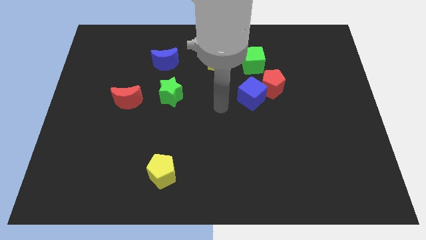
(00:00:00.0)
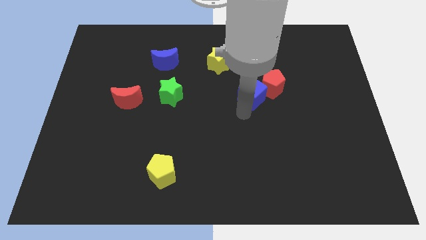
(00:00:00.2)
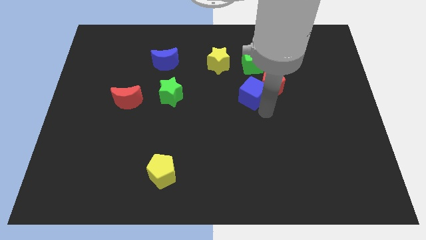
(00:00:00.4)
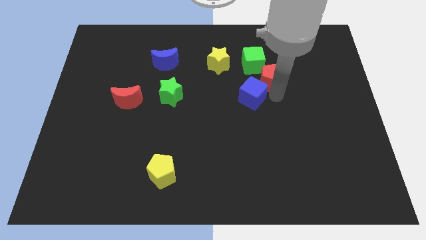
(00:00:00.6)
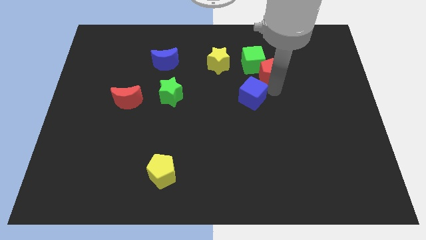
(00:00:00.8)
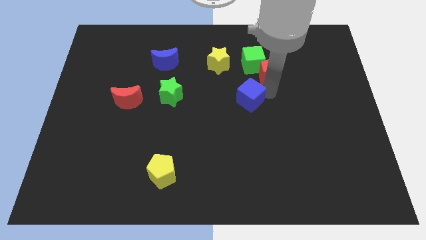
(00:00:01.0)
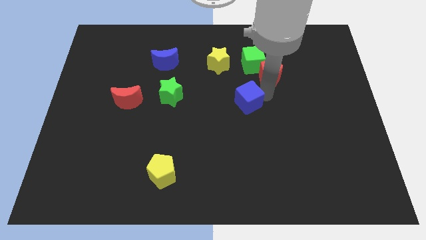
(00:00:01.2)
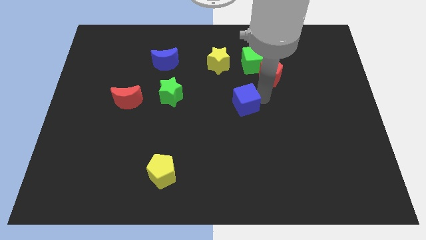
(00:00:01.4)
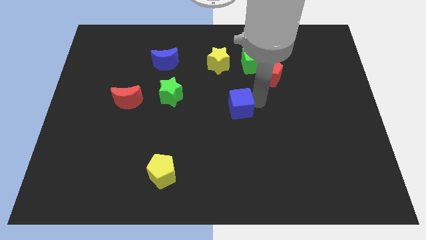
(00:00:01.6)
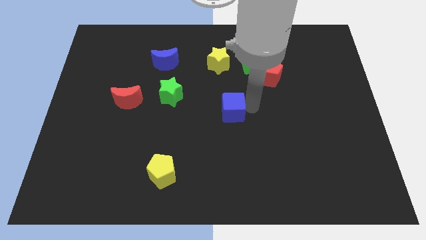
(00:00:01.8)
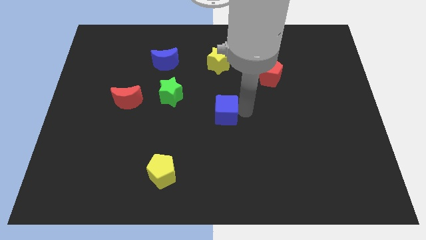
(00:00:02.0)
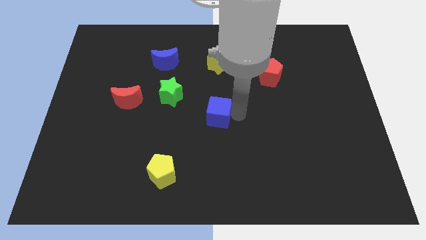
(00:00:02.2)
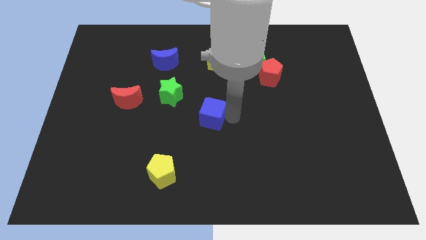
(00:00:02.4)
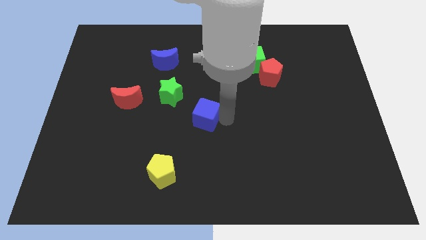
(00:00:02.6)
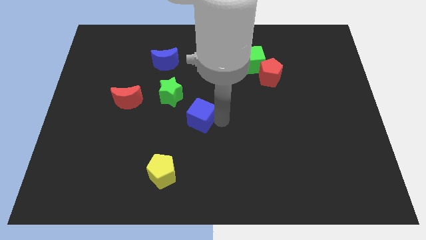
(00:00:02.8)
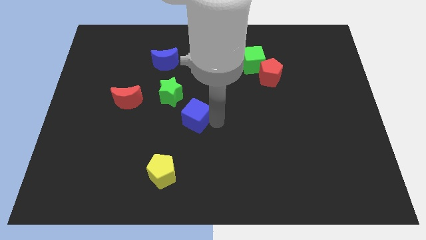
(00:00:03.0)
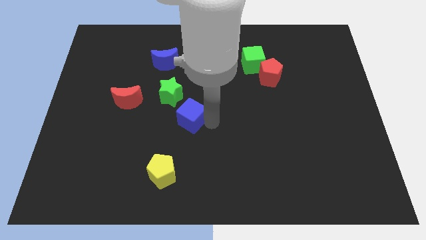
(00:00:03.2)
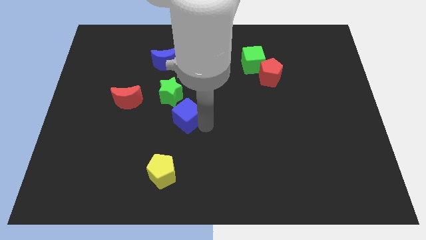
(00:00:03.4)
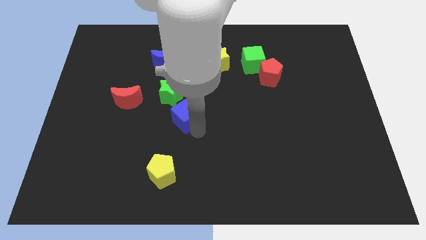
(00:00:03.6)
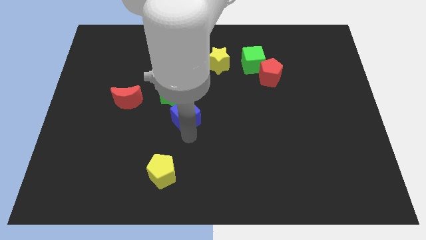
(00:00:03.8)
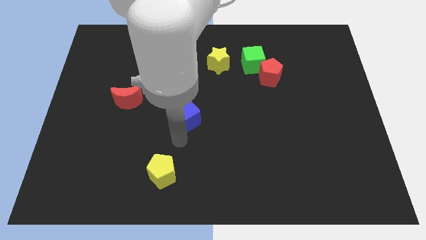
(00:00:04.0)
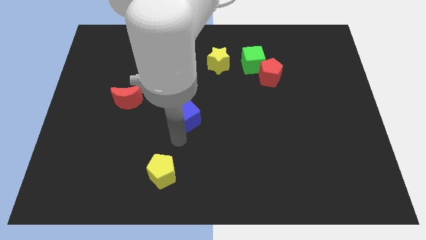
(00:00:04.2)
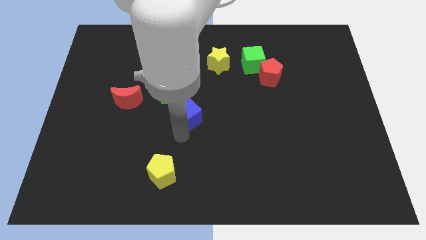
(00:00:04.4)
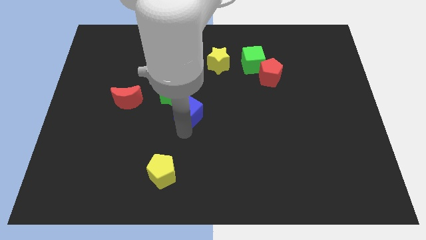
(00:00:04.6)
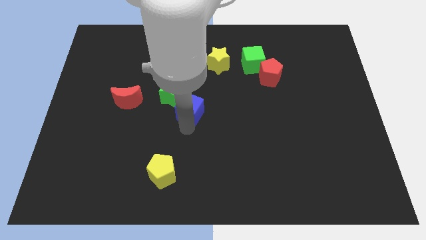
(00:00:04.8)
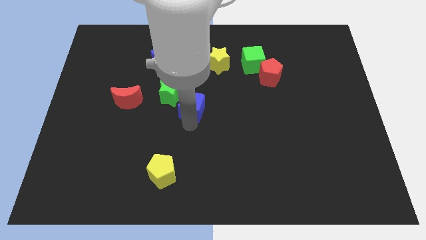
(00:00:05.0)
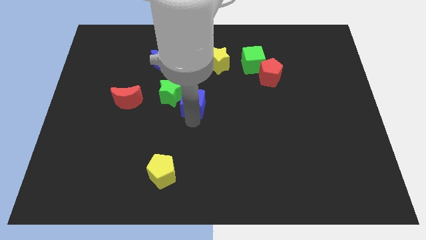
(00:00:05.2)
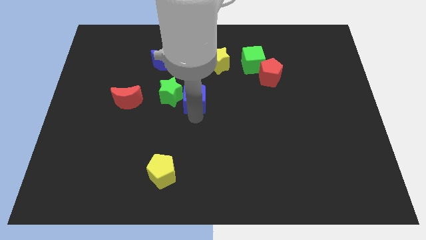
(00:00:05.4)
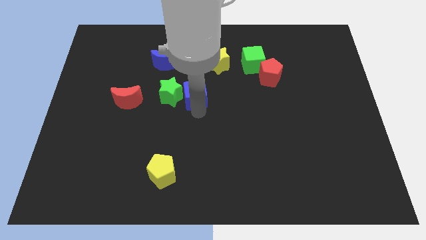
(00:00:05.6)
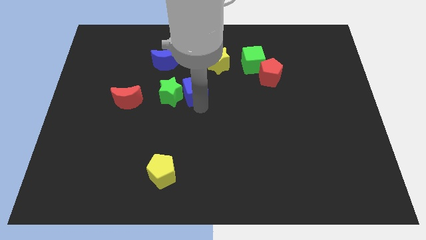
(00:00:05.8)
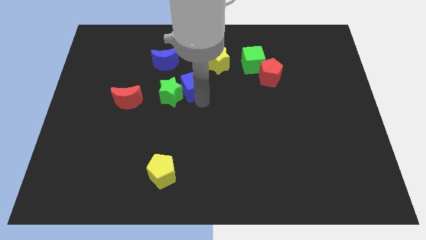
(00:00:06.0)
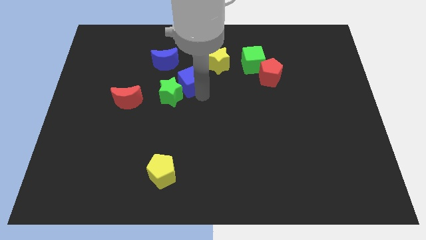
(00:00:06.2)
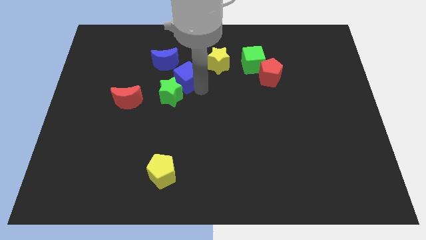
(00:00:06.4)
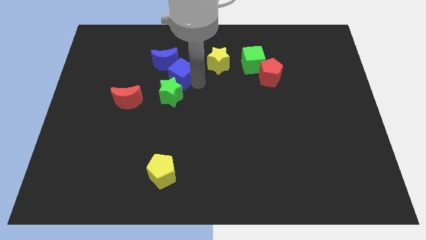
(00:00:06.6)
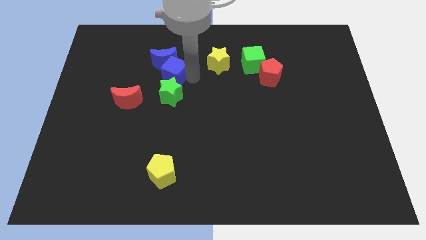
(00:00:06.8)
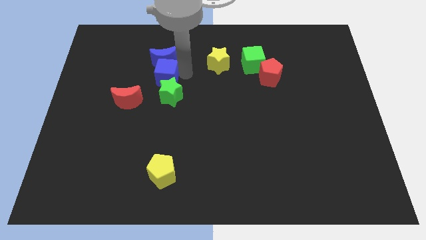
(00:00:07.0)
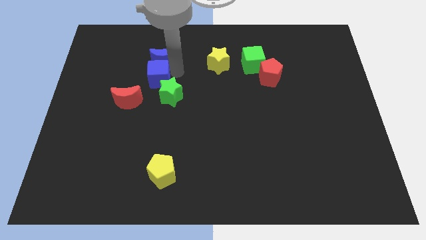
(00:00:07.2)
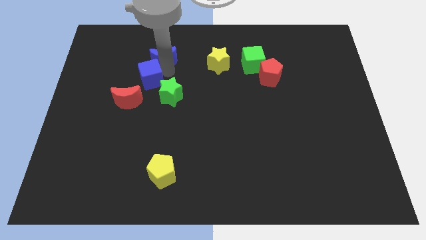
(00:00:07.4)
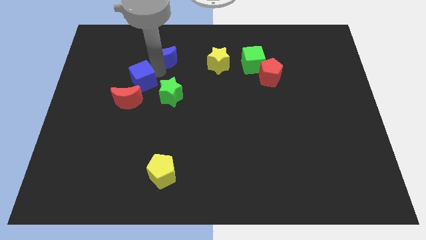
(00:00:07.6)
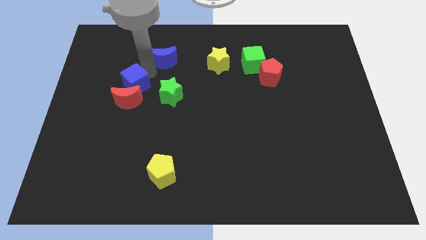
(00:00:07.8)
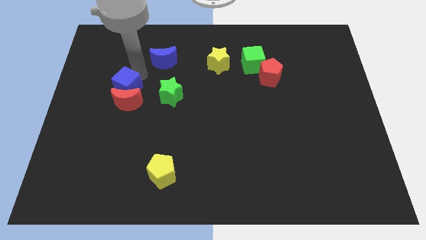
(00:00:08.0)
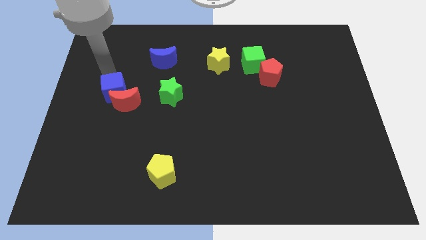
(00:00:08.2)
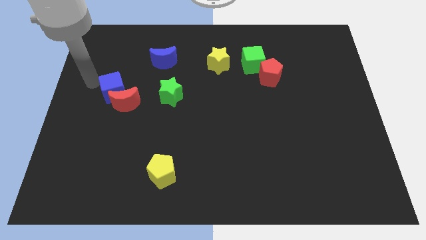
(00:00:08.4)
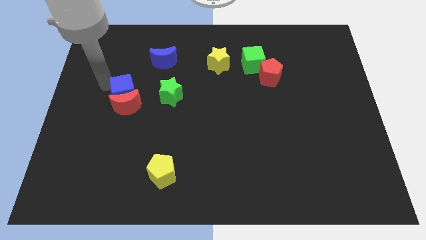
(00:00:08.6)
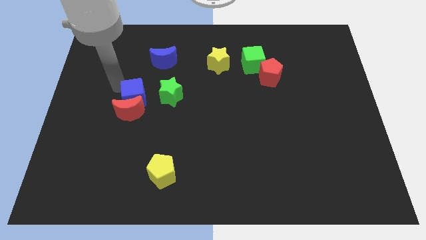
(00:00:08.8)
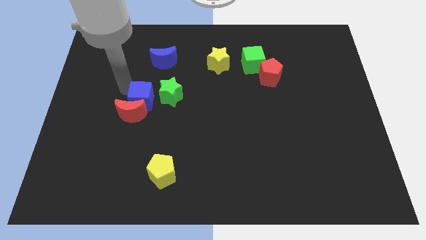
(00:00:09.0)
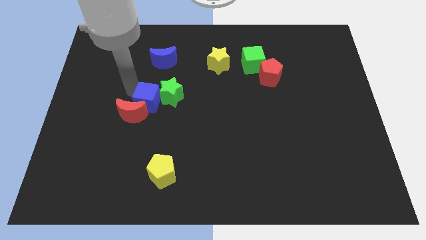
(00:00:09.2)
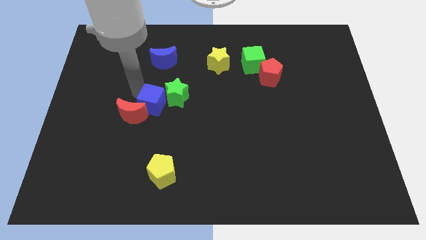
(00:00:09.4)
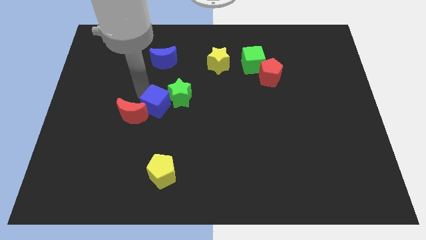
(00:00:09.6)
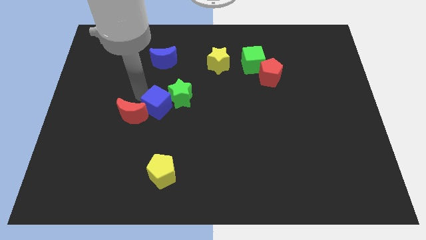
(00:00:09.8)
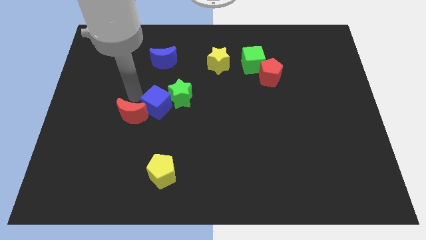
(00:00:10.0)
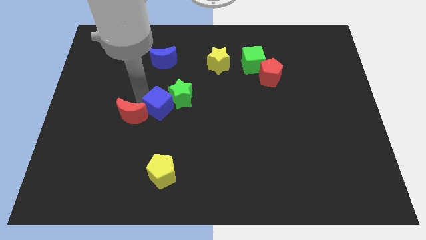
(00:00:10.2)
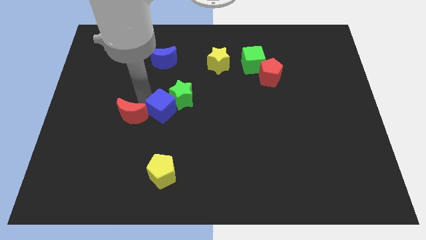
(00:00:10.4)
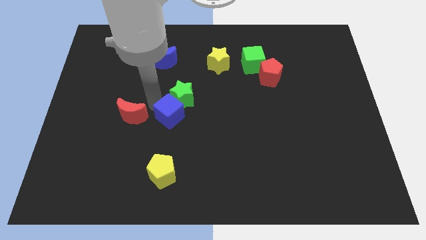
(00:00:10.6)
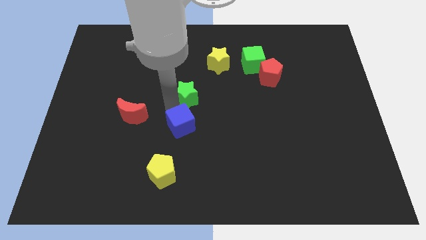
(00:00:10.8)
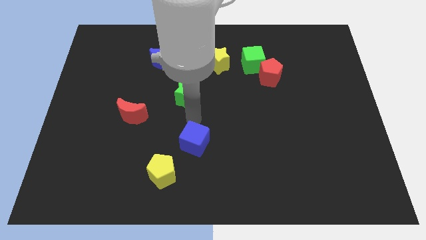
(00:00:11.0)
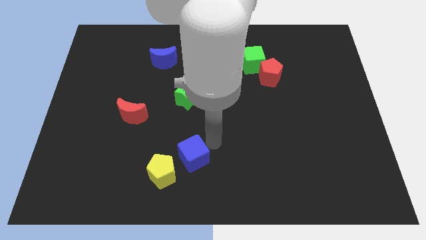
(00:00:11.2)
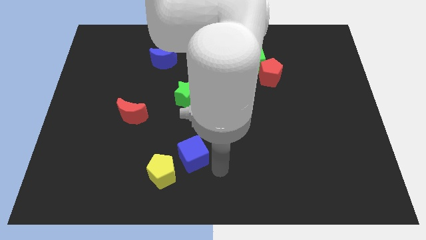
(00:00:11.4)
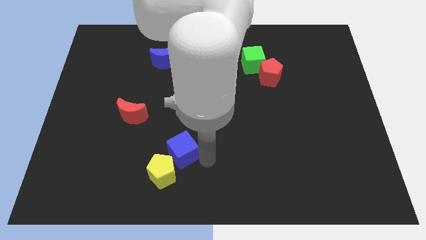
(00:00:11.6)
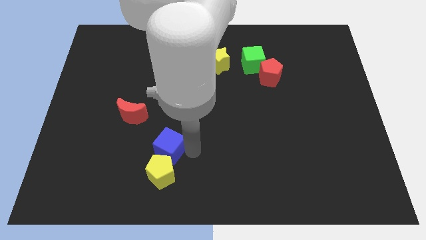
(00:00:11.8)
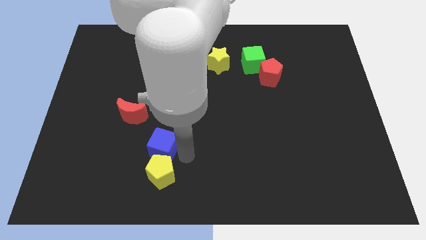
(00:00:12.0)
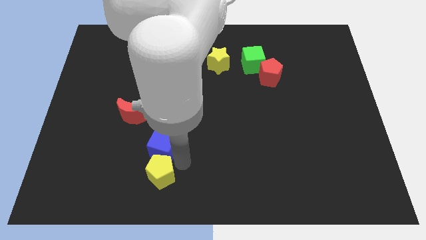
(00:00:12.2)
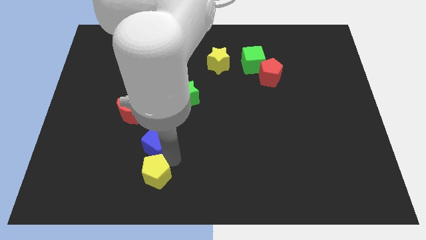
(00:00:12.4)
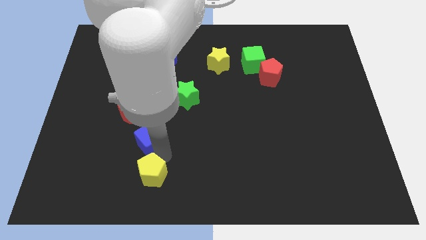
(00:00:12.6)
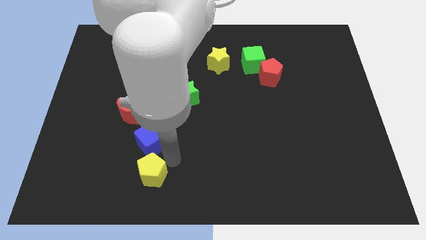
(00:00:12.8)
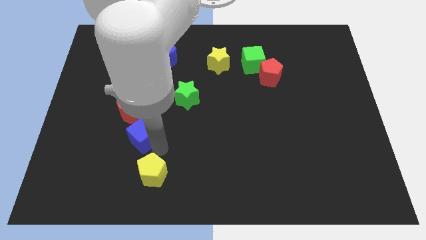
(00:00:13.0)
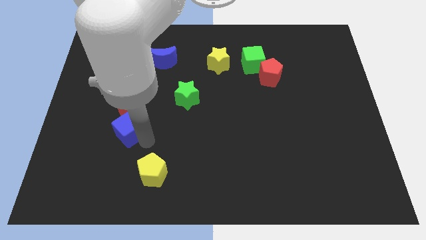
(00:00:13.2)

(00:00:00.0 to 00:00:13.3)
put the blue cube to the bottom left of the red moon

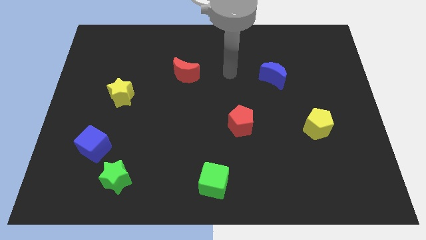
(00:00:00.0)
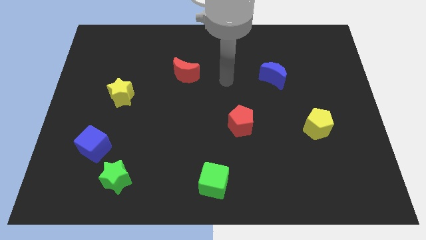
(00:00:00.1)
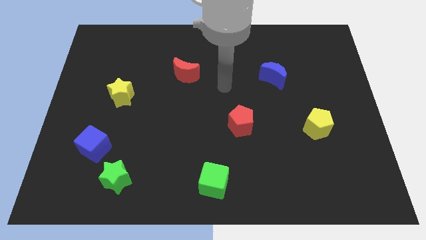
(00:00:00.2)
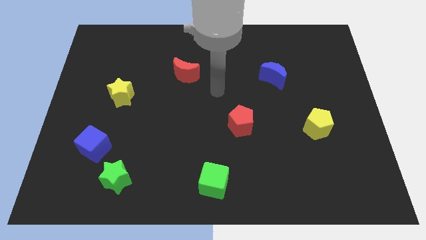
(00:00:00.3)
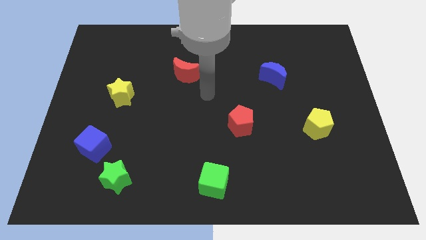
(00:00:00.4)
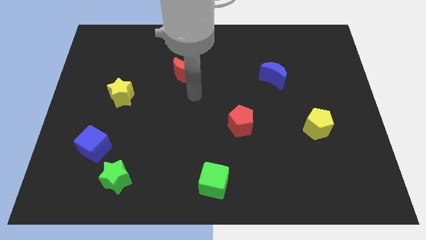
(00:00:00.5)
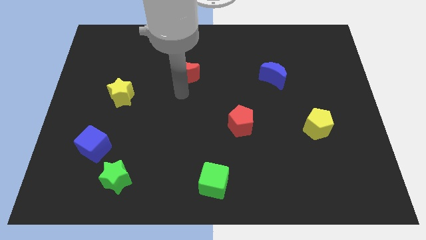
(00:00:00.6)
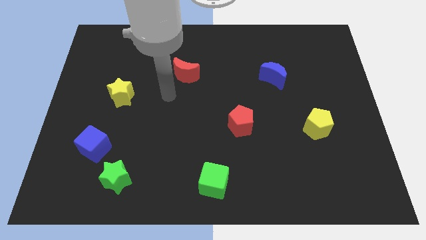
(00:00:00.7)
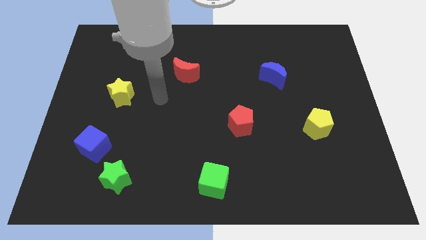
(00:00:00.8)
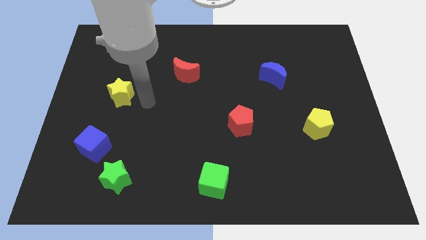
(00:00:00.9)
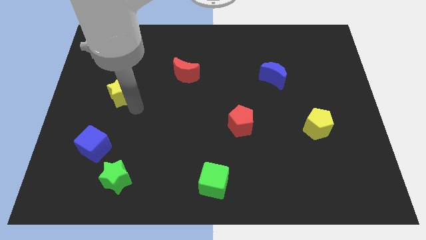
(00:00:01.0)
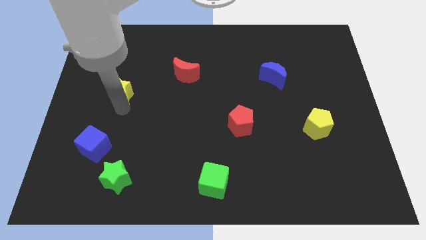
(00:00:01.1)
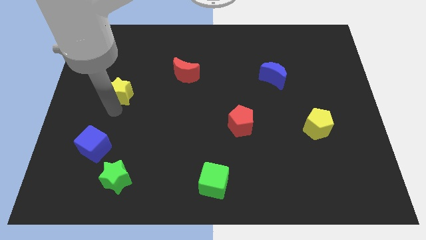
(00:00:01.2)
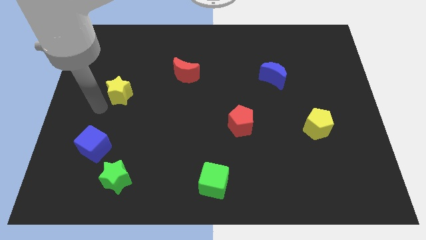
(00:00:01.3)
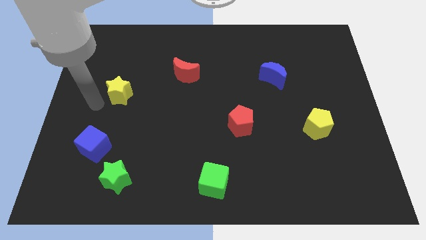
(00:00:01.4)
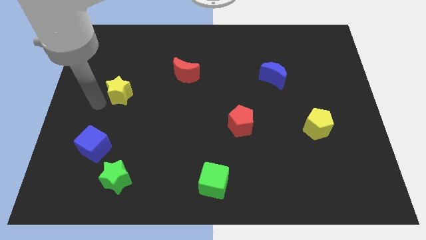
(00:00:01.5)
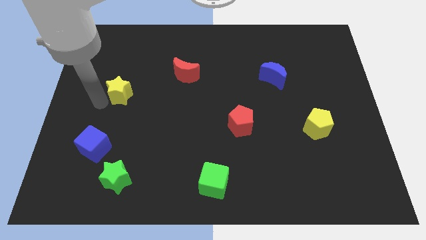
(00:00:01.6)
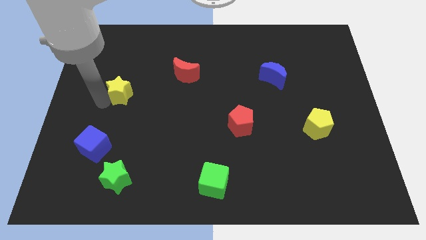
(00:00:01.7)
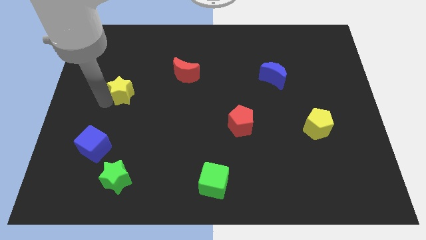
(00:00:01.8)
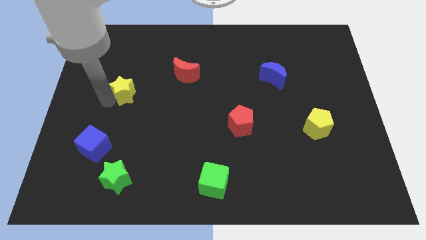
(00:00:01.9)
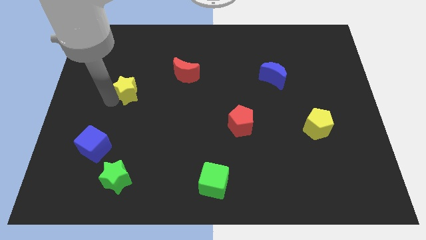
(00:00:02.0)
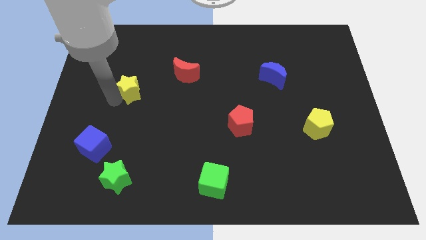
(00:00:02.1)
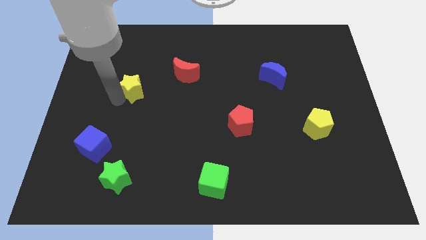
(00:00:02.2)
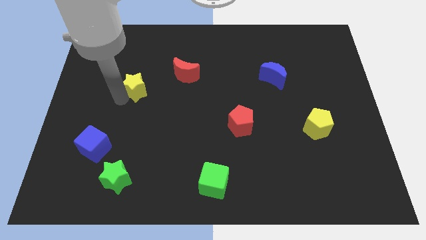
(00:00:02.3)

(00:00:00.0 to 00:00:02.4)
move the yellow star to the left side of the red moon
